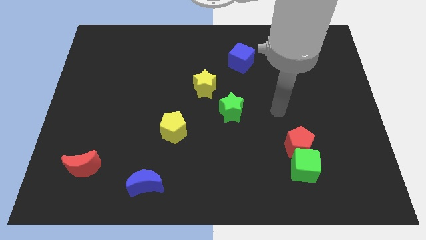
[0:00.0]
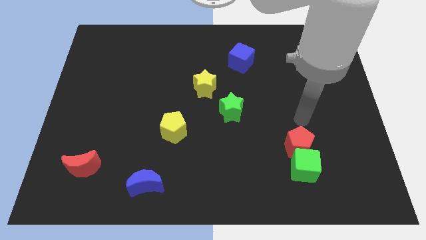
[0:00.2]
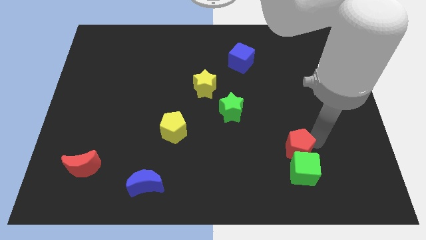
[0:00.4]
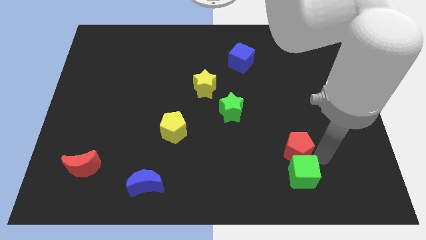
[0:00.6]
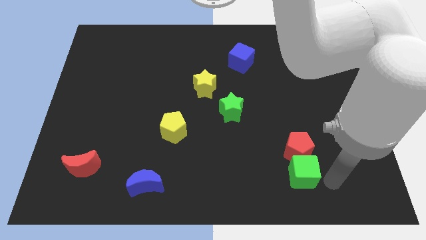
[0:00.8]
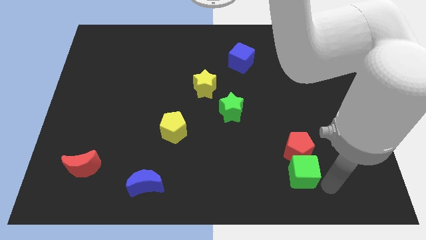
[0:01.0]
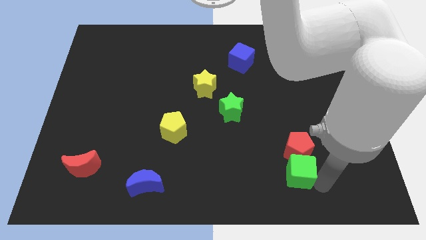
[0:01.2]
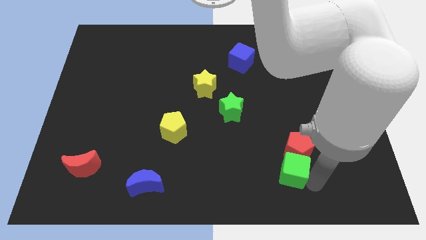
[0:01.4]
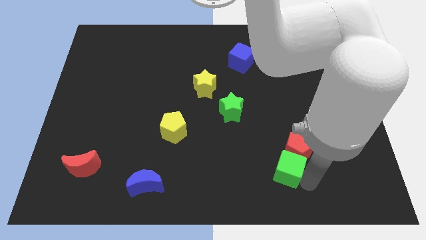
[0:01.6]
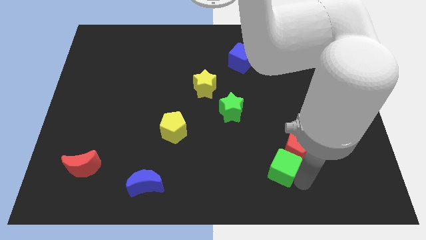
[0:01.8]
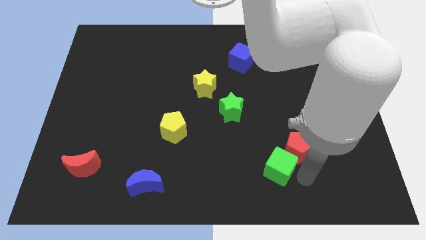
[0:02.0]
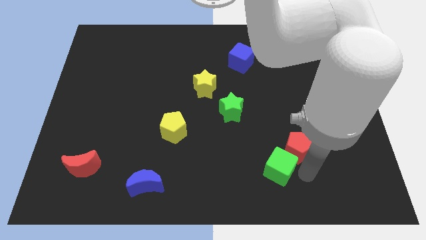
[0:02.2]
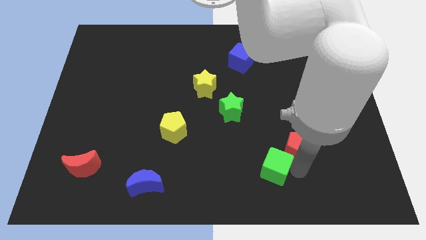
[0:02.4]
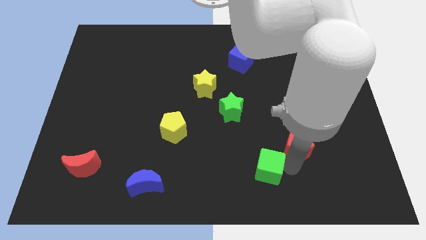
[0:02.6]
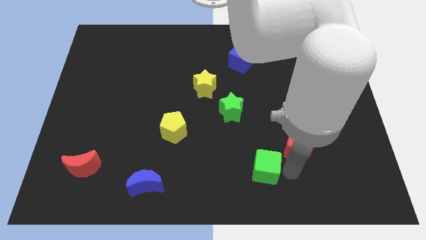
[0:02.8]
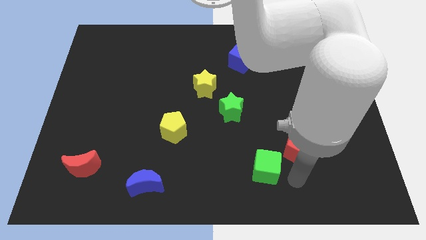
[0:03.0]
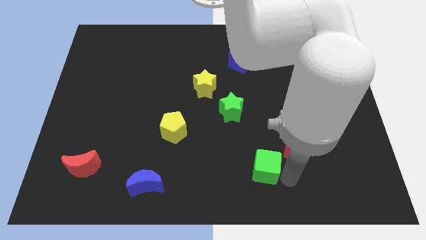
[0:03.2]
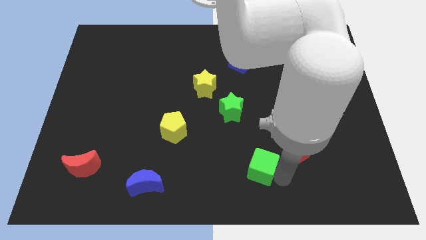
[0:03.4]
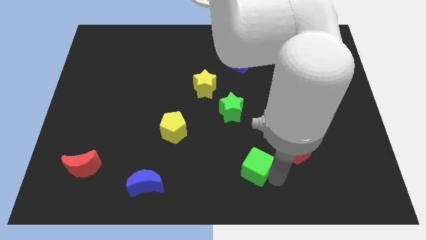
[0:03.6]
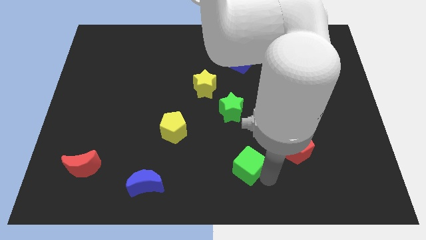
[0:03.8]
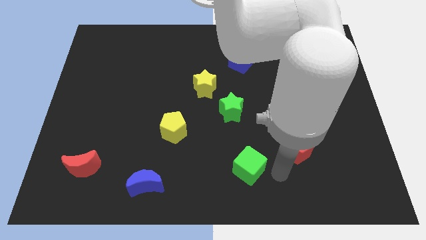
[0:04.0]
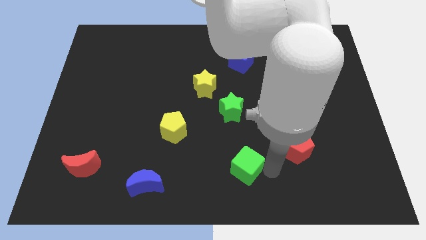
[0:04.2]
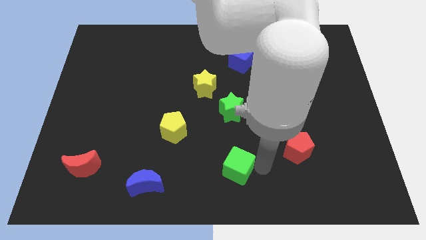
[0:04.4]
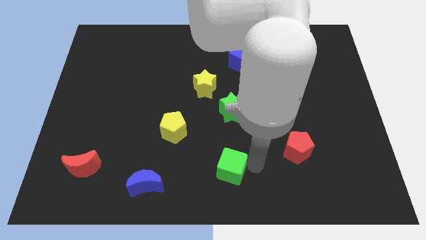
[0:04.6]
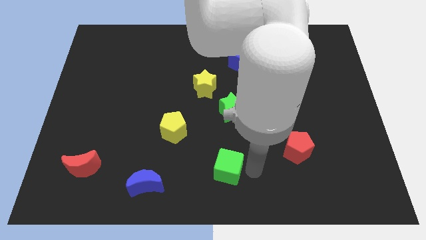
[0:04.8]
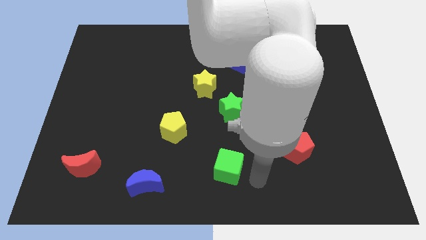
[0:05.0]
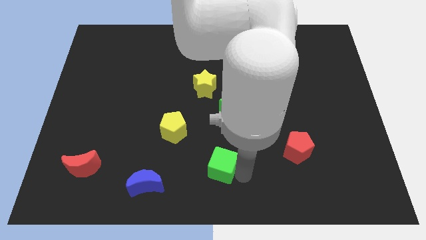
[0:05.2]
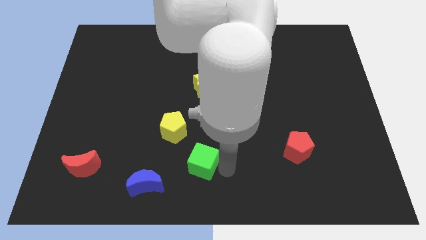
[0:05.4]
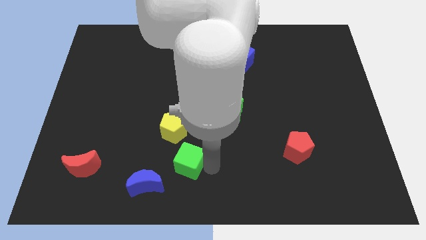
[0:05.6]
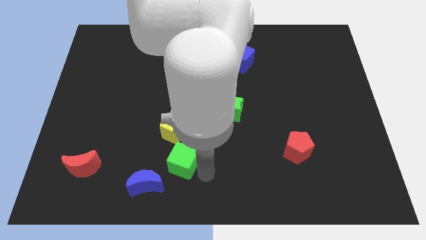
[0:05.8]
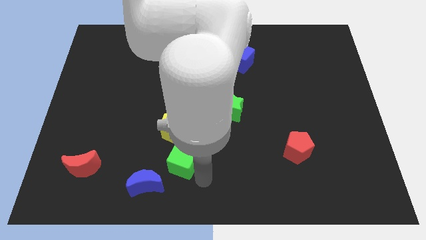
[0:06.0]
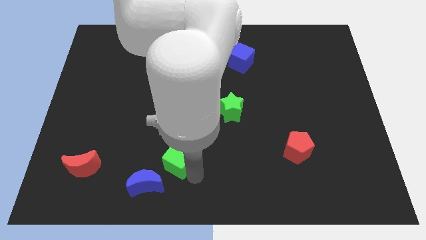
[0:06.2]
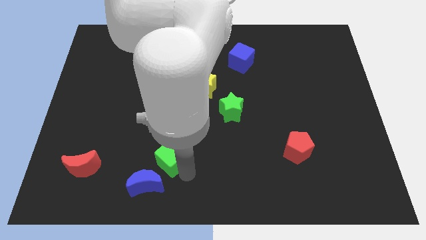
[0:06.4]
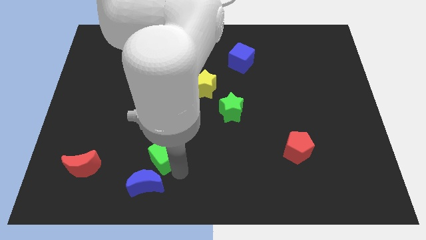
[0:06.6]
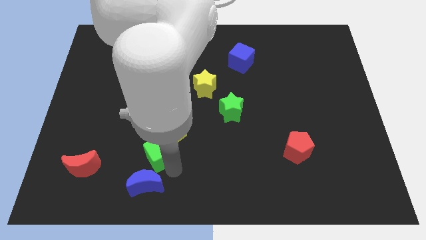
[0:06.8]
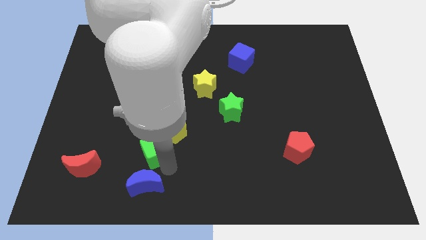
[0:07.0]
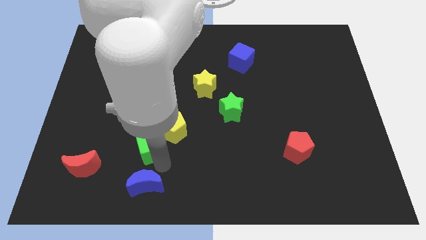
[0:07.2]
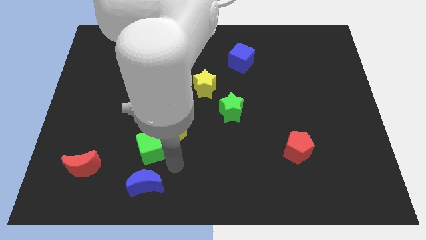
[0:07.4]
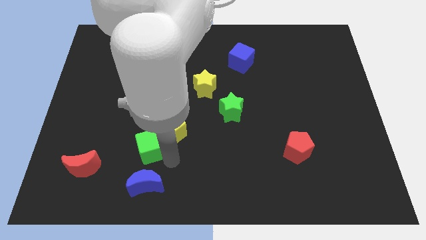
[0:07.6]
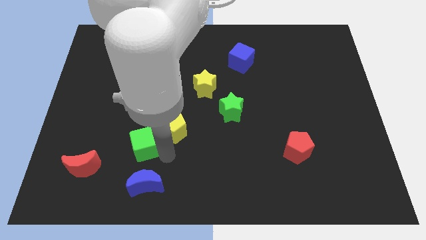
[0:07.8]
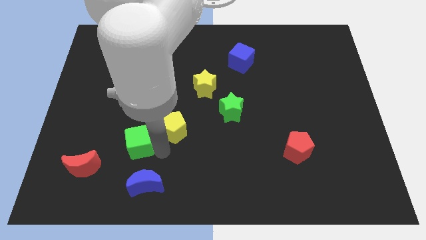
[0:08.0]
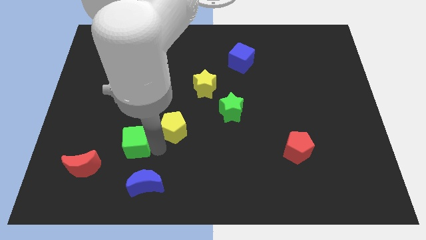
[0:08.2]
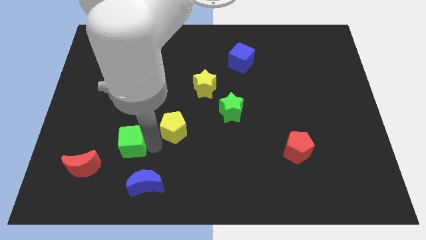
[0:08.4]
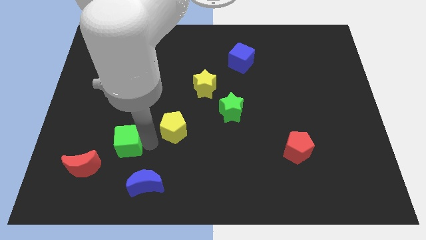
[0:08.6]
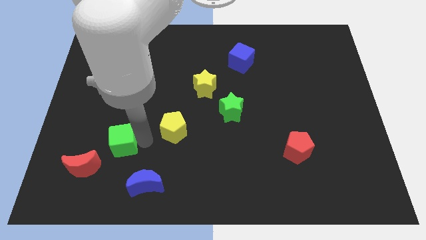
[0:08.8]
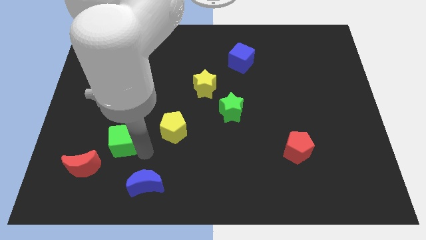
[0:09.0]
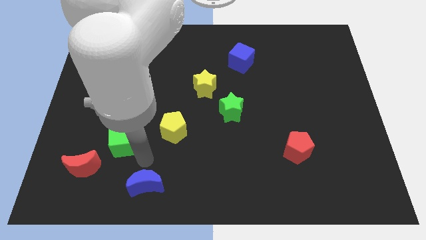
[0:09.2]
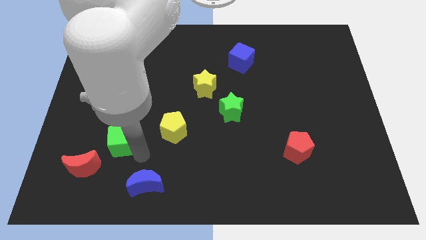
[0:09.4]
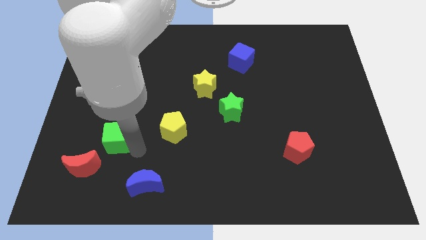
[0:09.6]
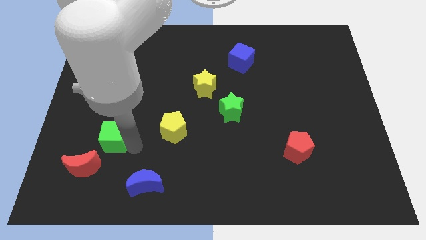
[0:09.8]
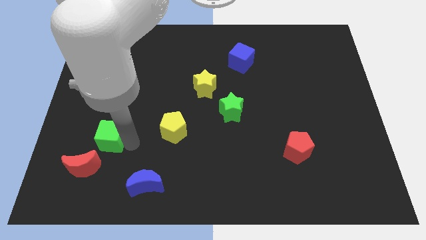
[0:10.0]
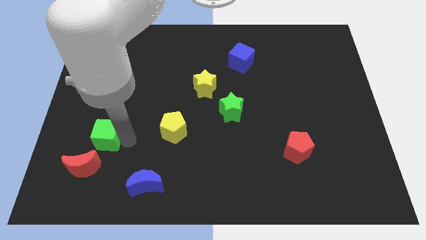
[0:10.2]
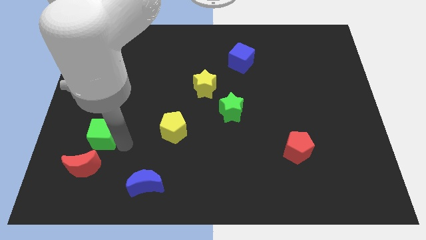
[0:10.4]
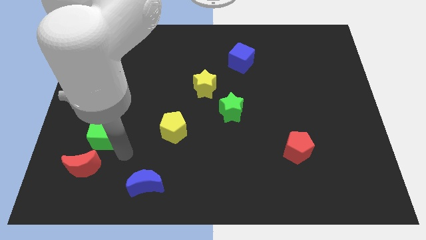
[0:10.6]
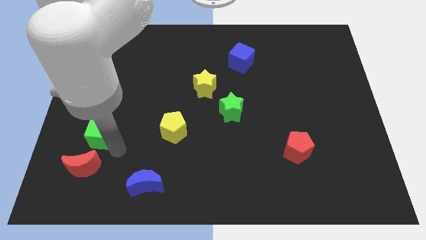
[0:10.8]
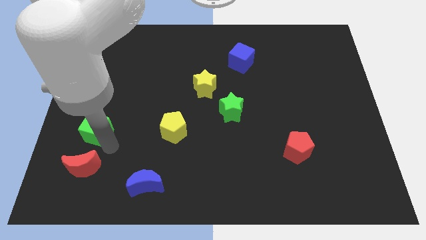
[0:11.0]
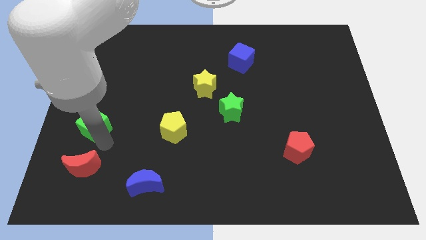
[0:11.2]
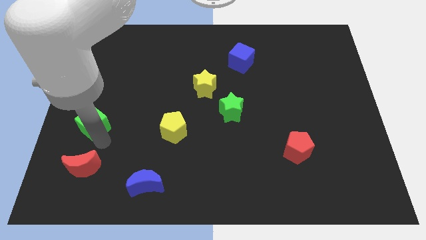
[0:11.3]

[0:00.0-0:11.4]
push the green cube to the left side

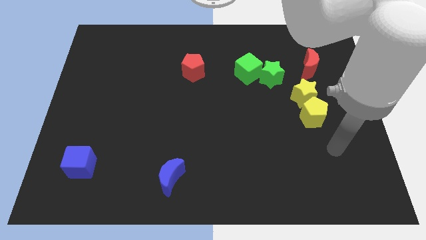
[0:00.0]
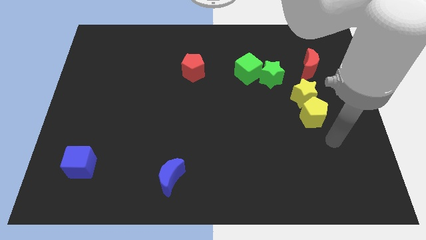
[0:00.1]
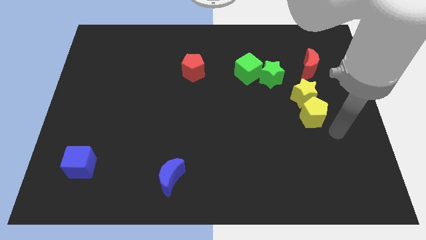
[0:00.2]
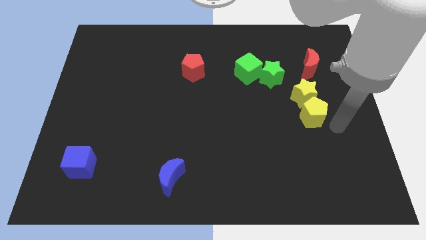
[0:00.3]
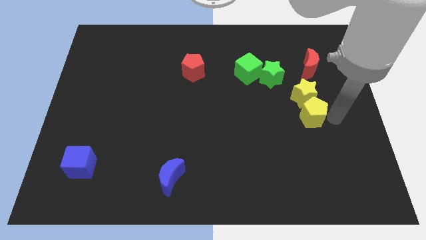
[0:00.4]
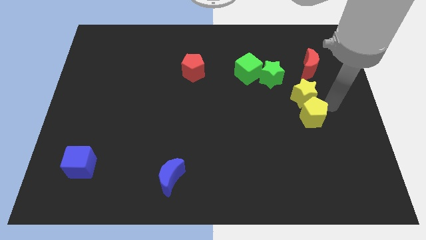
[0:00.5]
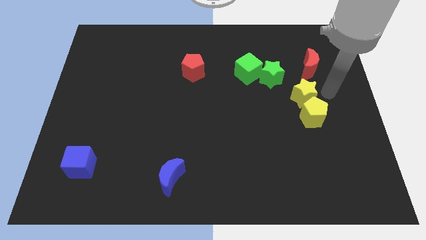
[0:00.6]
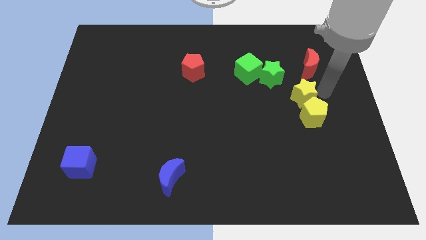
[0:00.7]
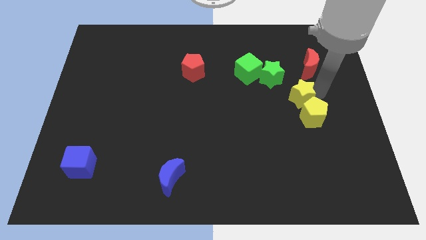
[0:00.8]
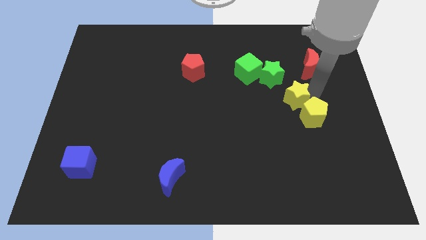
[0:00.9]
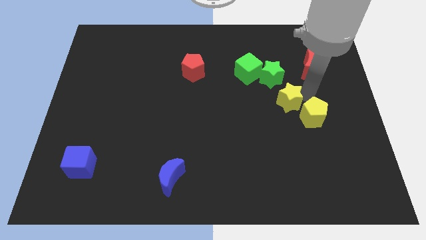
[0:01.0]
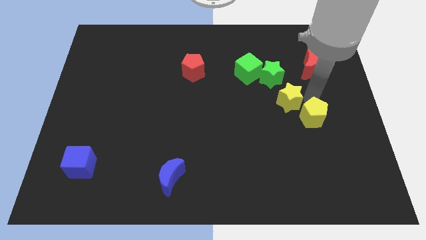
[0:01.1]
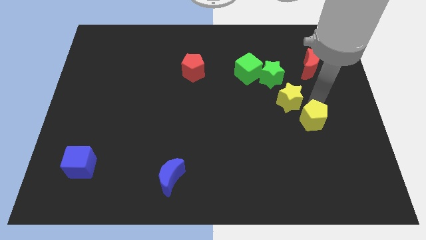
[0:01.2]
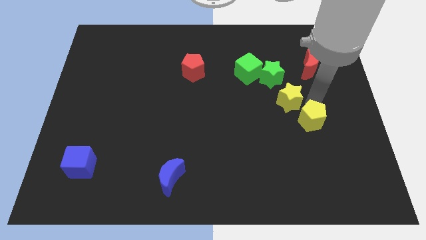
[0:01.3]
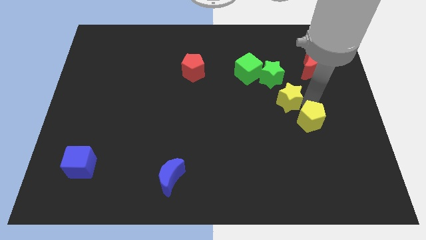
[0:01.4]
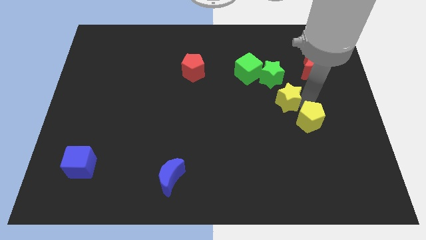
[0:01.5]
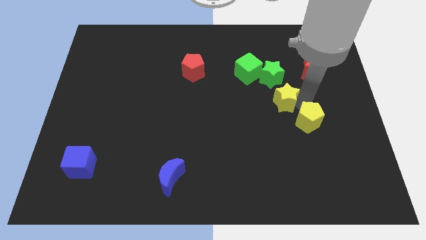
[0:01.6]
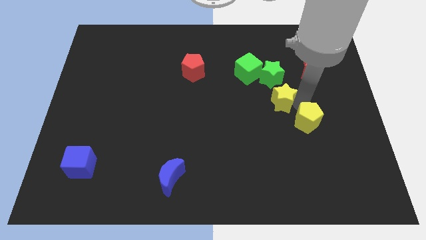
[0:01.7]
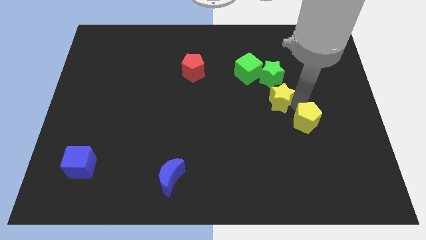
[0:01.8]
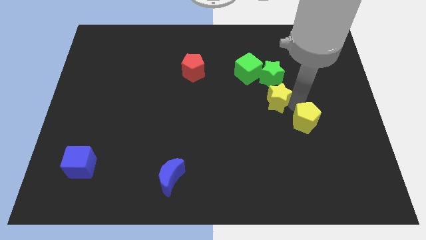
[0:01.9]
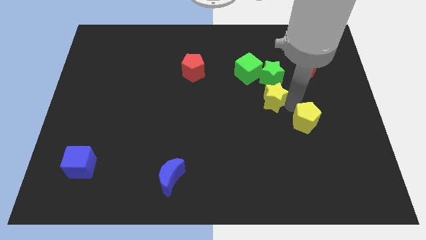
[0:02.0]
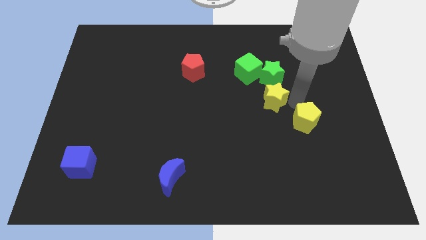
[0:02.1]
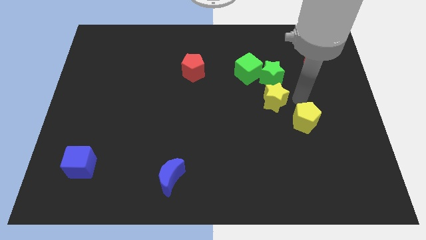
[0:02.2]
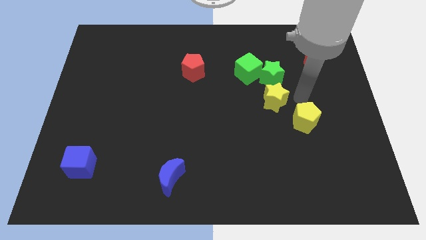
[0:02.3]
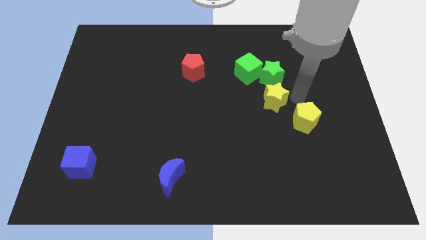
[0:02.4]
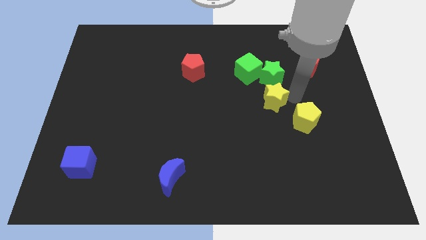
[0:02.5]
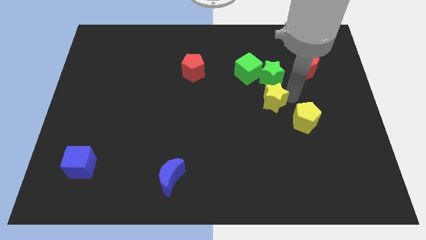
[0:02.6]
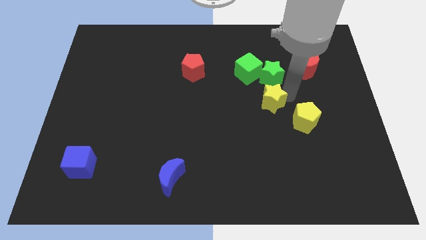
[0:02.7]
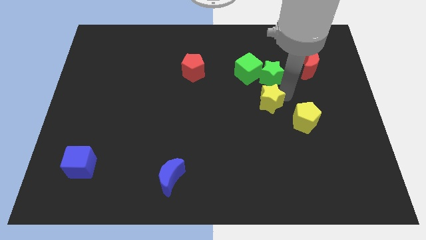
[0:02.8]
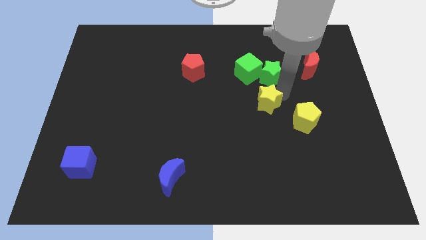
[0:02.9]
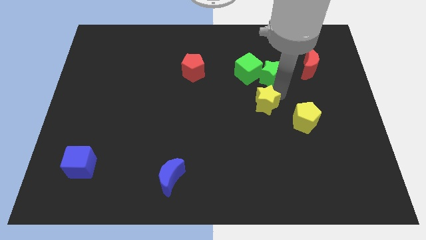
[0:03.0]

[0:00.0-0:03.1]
push the yellow star to the middle
